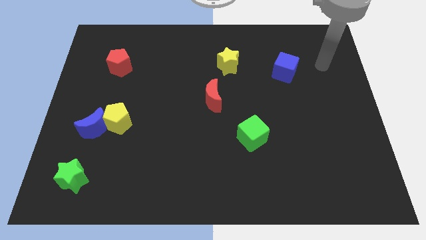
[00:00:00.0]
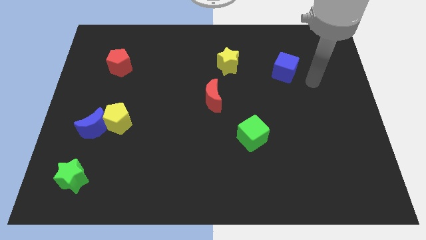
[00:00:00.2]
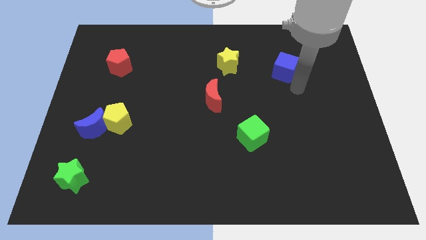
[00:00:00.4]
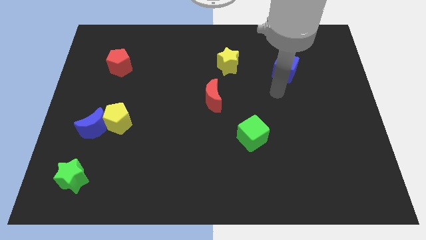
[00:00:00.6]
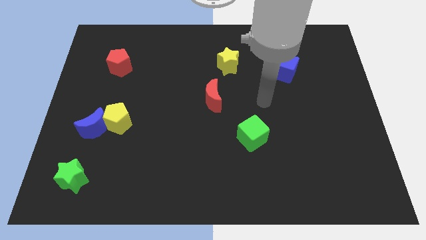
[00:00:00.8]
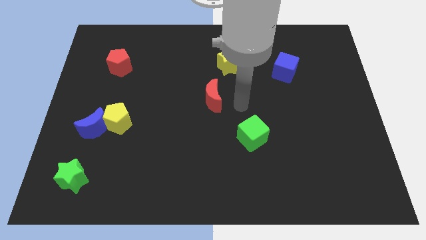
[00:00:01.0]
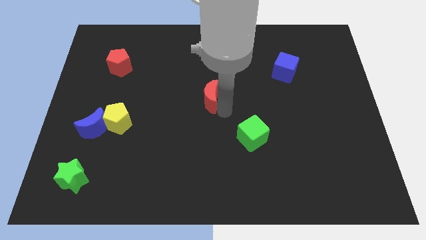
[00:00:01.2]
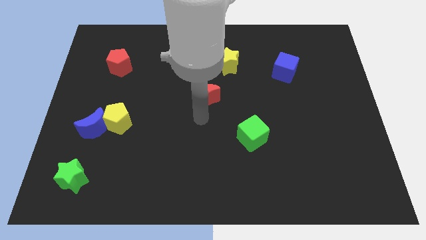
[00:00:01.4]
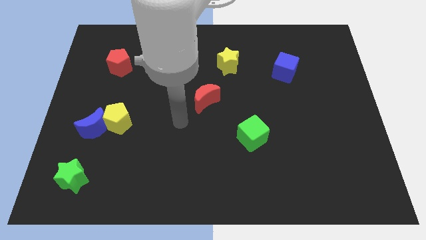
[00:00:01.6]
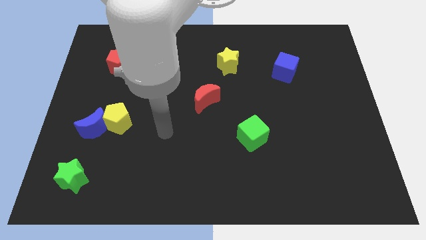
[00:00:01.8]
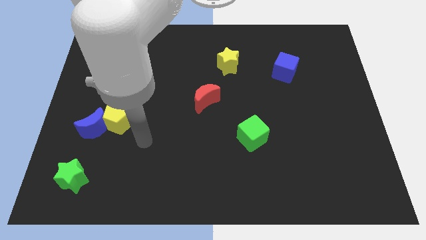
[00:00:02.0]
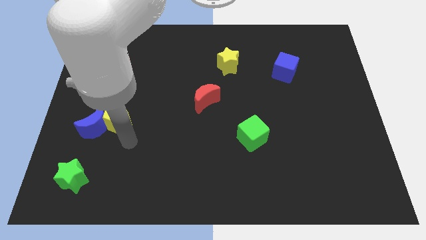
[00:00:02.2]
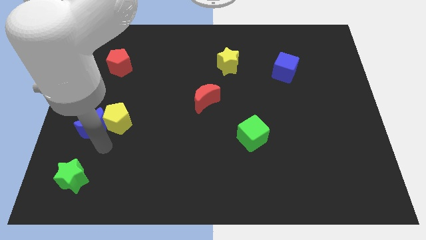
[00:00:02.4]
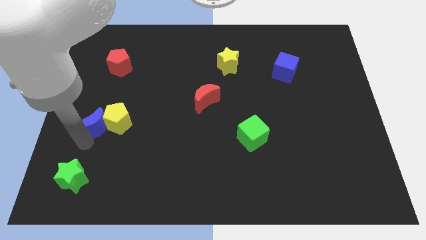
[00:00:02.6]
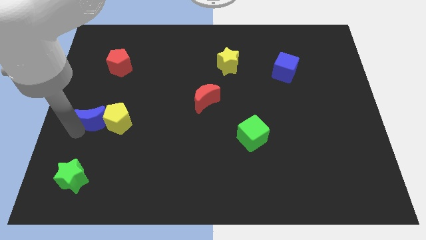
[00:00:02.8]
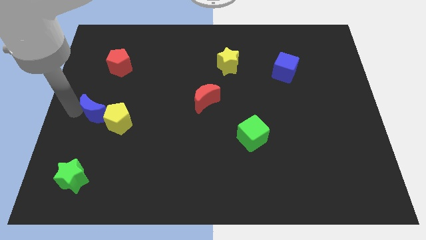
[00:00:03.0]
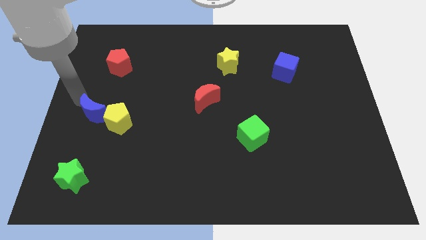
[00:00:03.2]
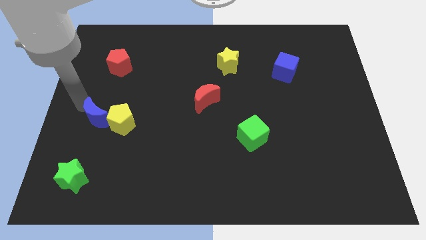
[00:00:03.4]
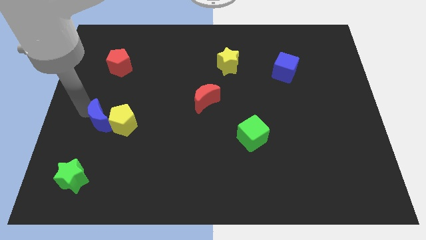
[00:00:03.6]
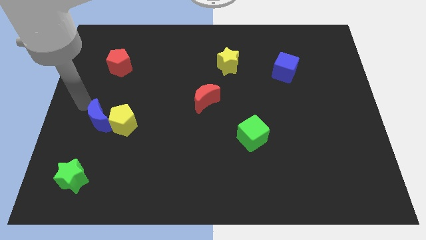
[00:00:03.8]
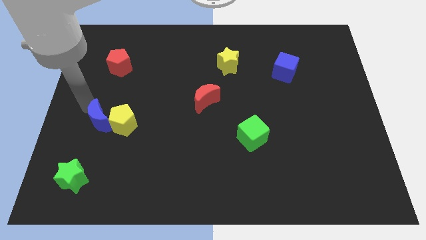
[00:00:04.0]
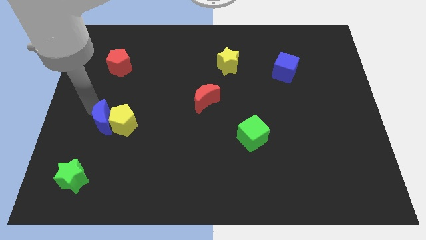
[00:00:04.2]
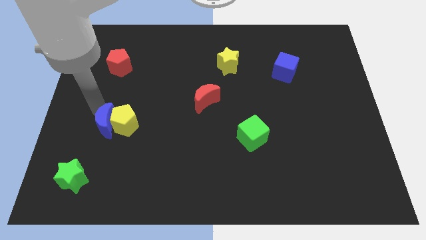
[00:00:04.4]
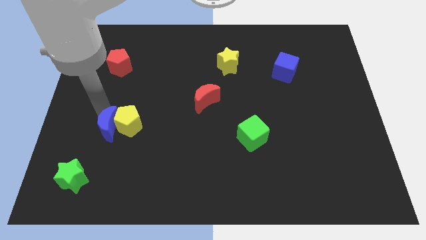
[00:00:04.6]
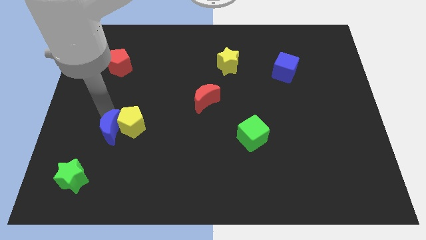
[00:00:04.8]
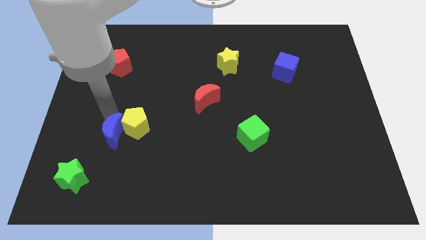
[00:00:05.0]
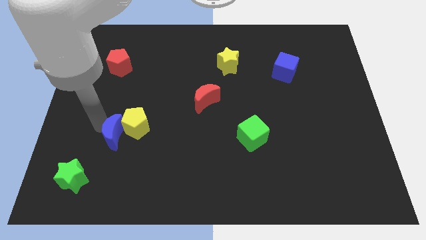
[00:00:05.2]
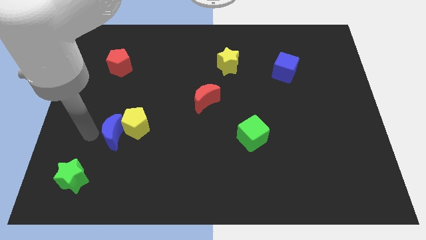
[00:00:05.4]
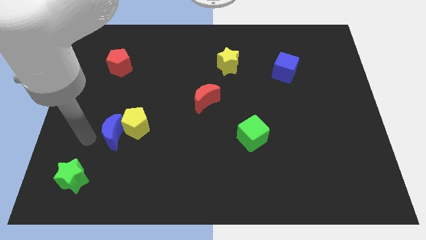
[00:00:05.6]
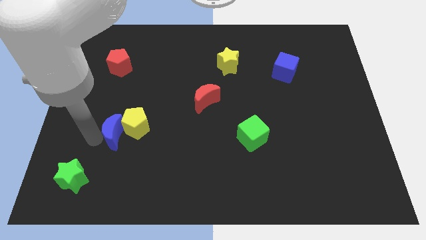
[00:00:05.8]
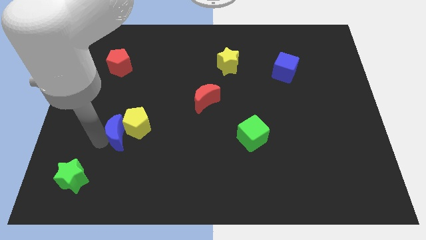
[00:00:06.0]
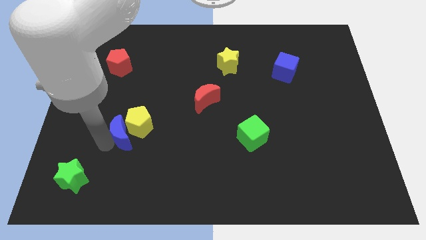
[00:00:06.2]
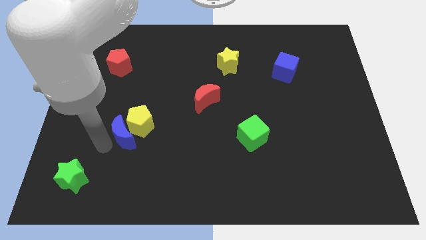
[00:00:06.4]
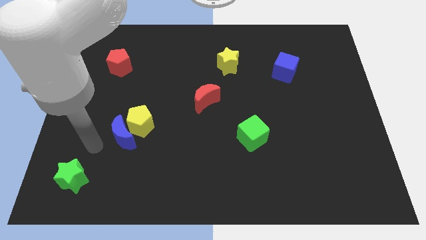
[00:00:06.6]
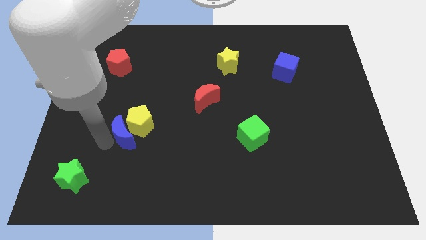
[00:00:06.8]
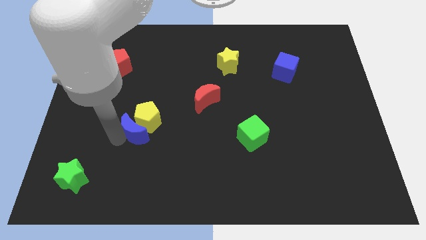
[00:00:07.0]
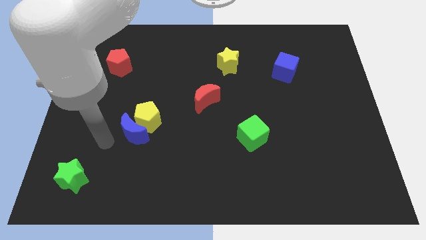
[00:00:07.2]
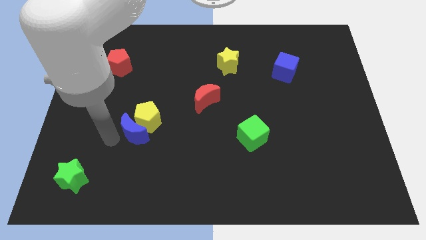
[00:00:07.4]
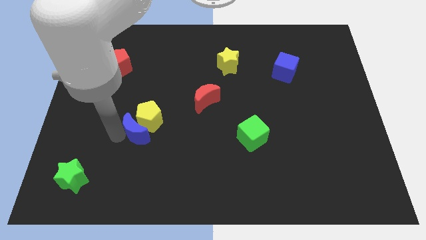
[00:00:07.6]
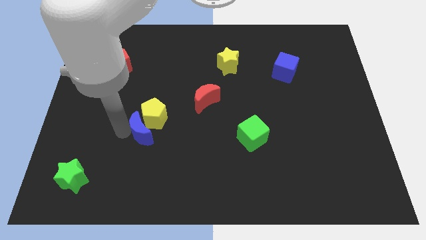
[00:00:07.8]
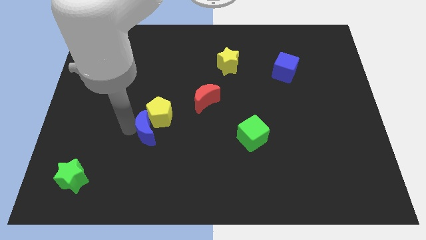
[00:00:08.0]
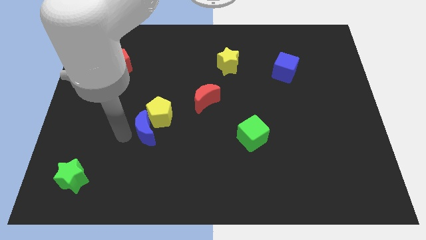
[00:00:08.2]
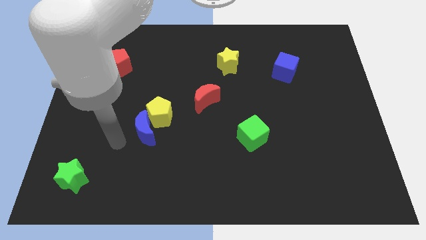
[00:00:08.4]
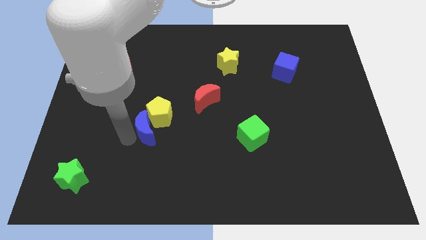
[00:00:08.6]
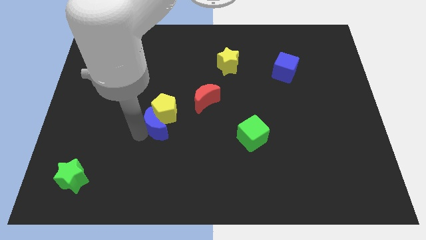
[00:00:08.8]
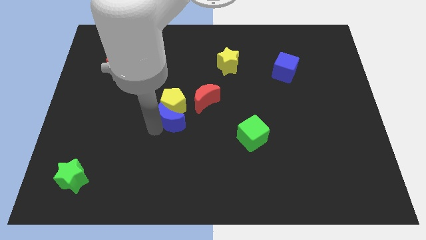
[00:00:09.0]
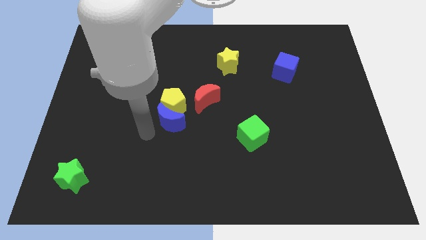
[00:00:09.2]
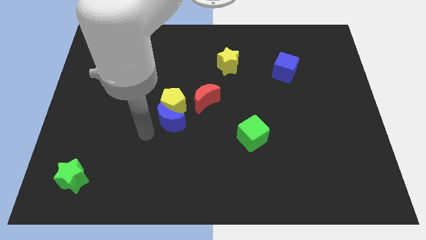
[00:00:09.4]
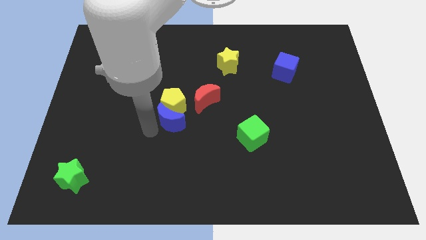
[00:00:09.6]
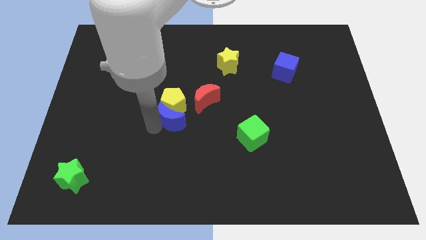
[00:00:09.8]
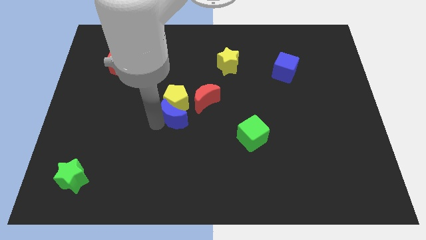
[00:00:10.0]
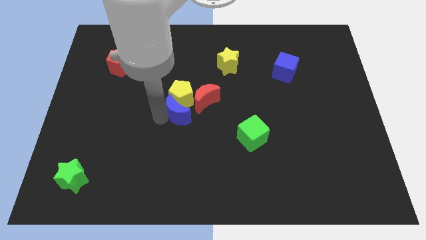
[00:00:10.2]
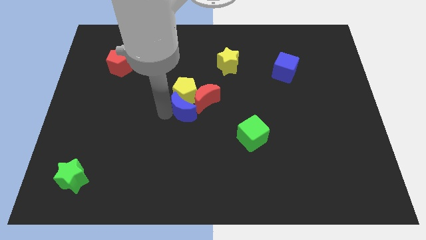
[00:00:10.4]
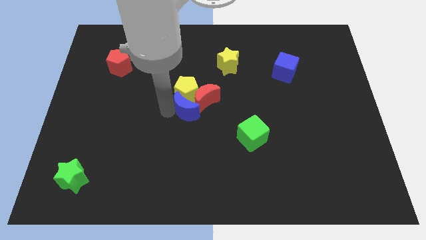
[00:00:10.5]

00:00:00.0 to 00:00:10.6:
move the blue moon to the red moon

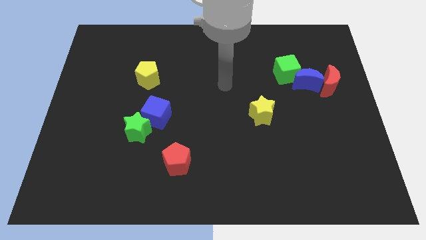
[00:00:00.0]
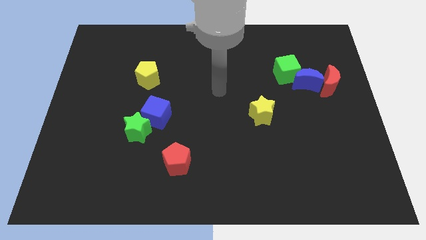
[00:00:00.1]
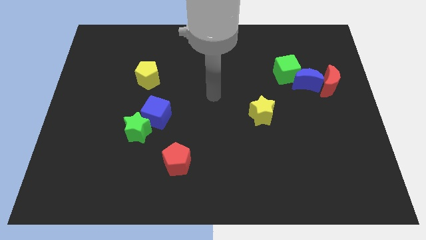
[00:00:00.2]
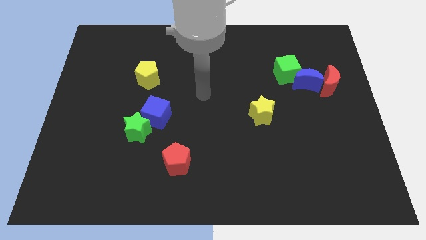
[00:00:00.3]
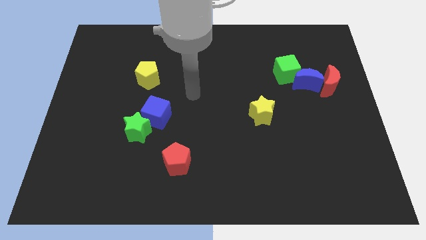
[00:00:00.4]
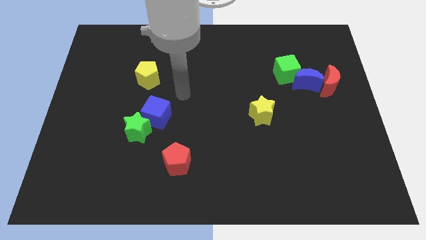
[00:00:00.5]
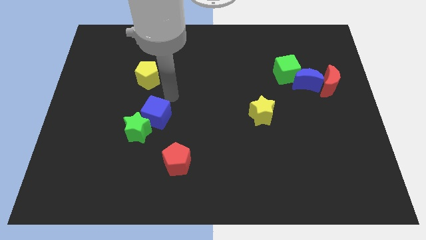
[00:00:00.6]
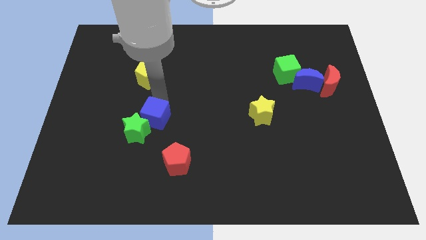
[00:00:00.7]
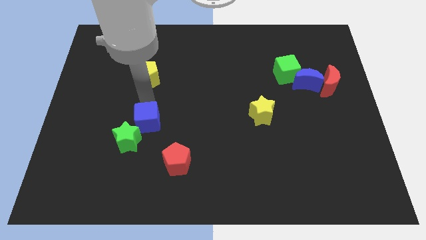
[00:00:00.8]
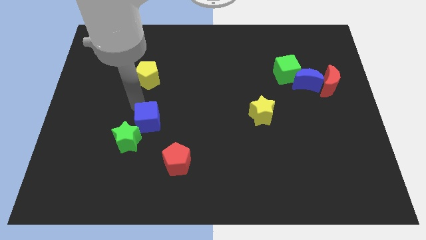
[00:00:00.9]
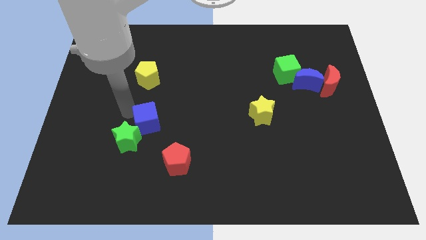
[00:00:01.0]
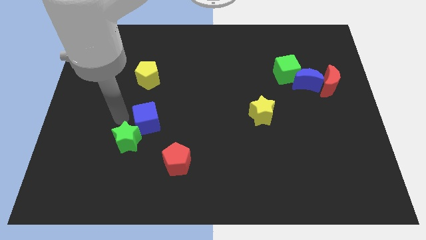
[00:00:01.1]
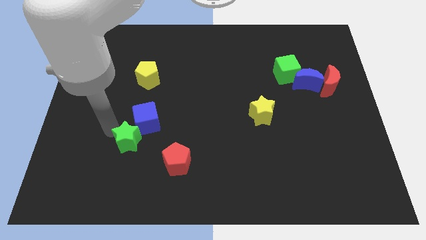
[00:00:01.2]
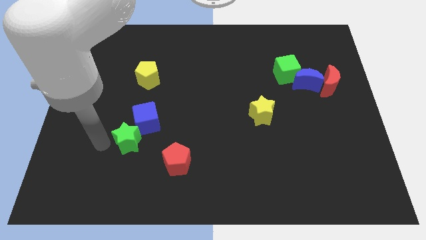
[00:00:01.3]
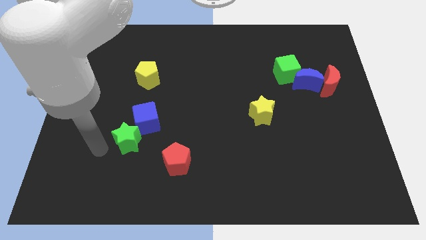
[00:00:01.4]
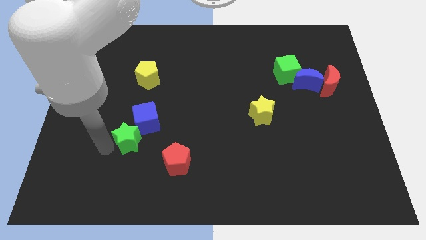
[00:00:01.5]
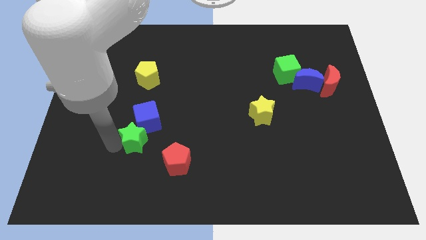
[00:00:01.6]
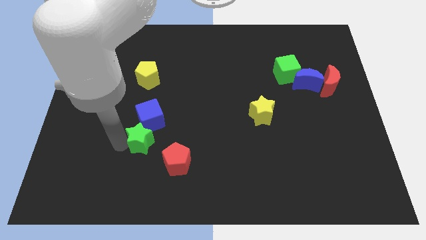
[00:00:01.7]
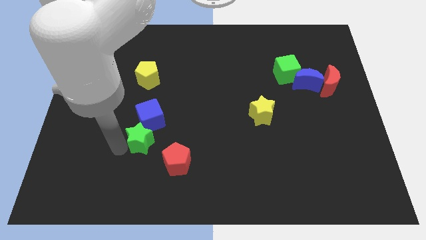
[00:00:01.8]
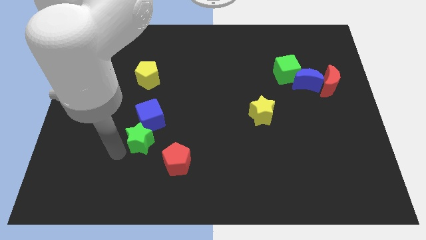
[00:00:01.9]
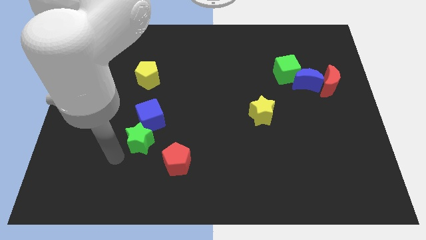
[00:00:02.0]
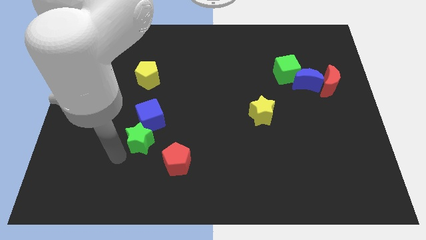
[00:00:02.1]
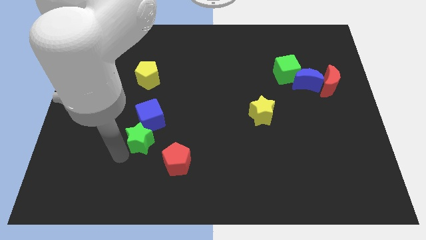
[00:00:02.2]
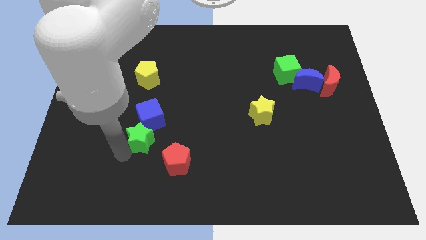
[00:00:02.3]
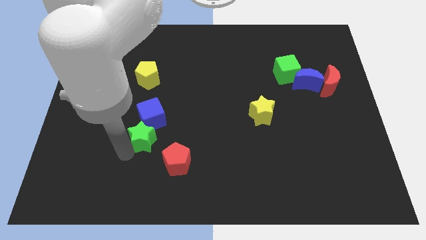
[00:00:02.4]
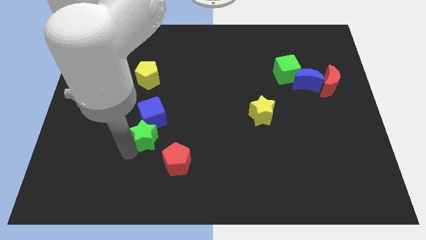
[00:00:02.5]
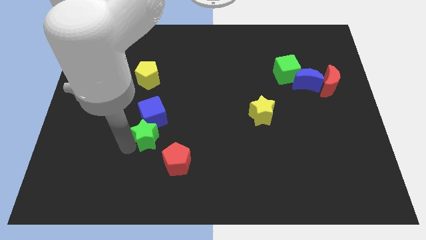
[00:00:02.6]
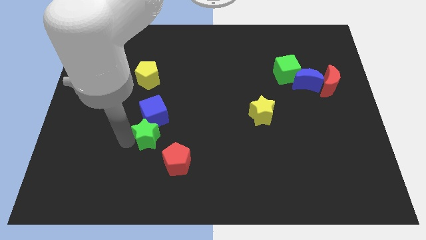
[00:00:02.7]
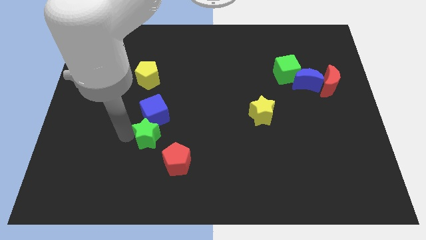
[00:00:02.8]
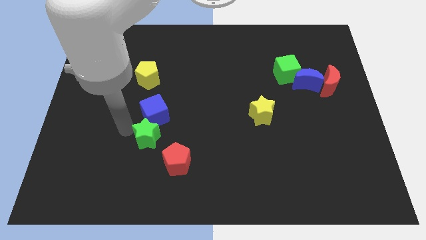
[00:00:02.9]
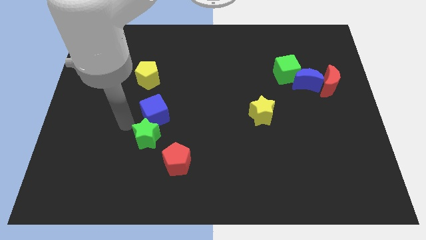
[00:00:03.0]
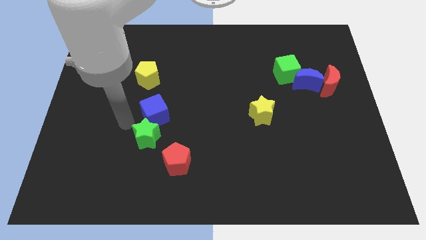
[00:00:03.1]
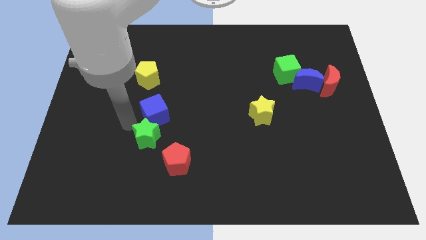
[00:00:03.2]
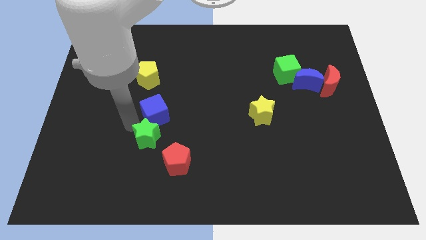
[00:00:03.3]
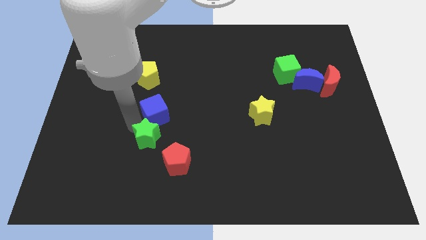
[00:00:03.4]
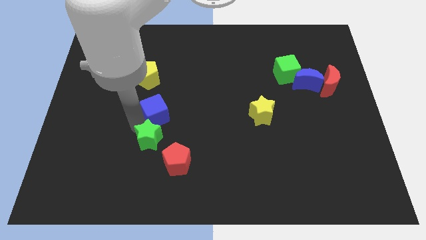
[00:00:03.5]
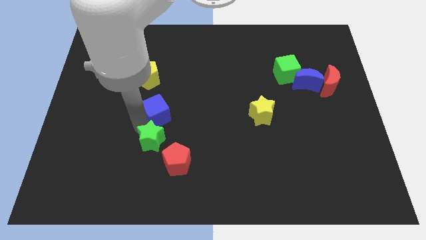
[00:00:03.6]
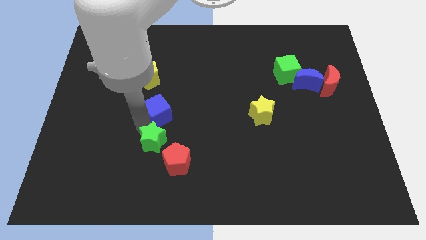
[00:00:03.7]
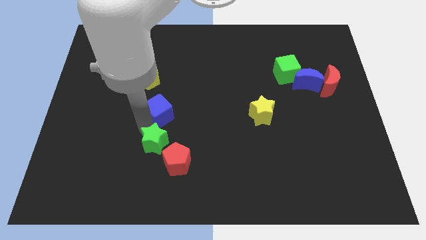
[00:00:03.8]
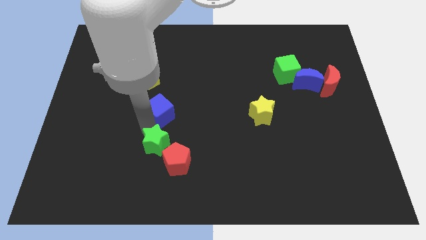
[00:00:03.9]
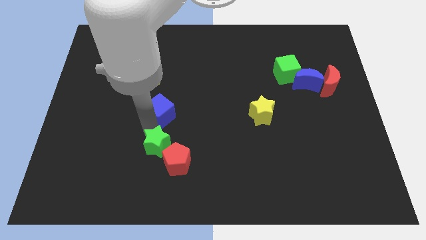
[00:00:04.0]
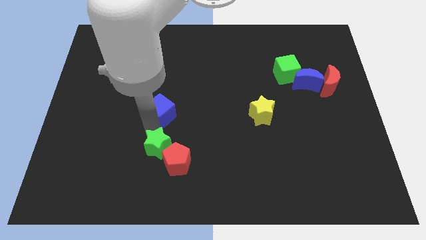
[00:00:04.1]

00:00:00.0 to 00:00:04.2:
move the green star next to the red pentagon
